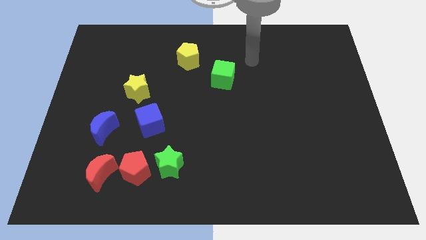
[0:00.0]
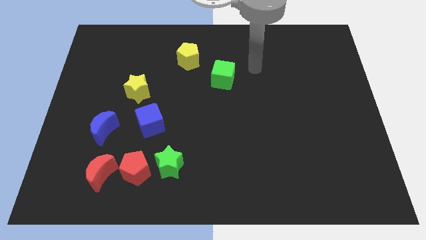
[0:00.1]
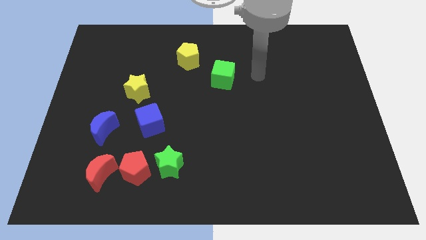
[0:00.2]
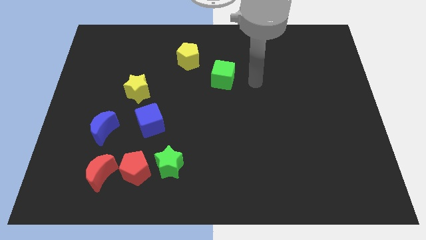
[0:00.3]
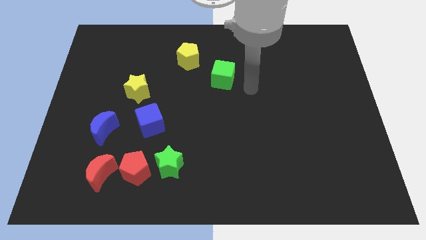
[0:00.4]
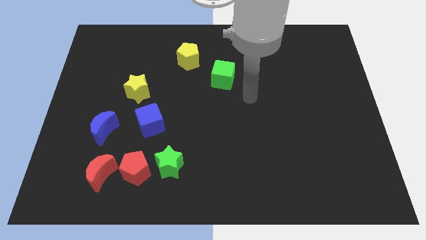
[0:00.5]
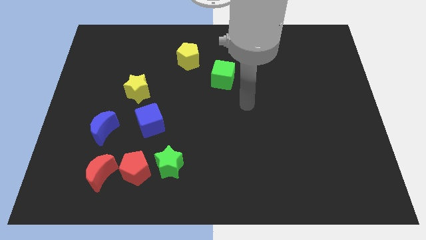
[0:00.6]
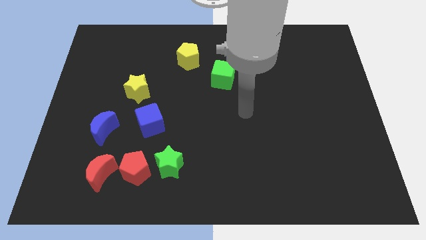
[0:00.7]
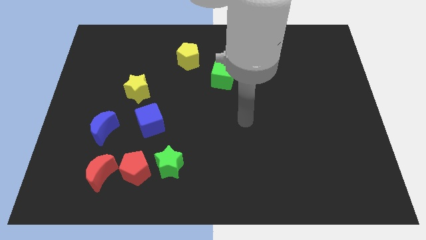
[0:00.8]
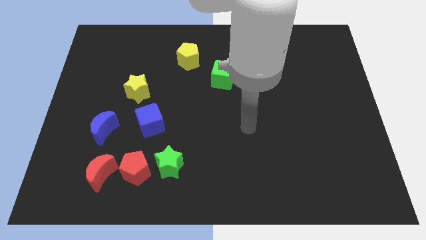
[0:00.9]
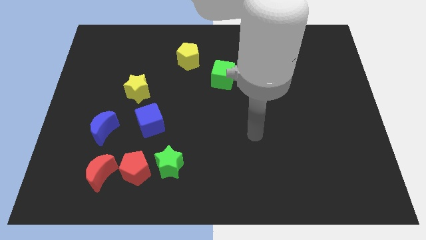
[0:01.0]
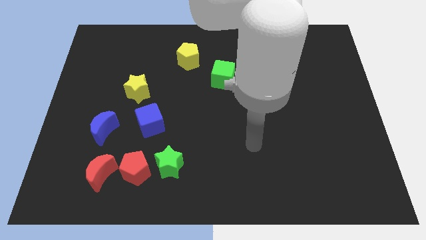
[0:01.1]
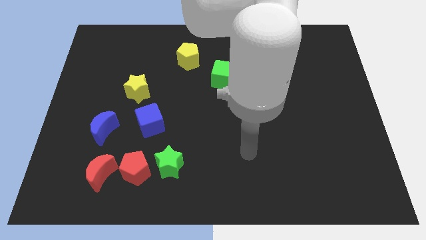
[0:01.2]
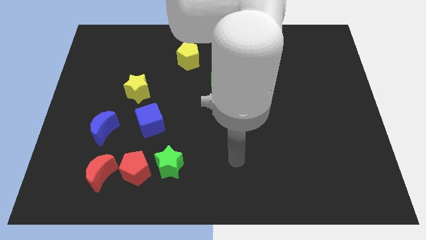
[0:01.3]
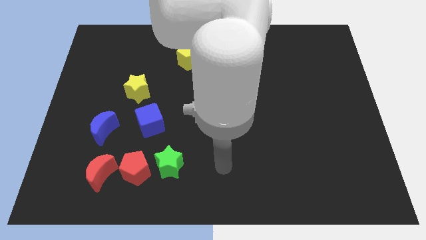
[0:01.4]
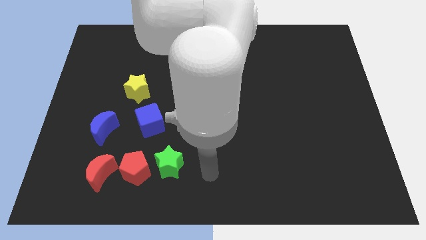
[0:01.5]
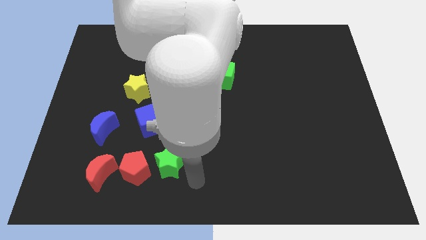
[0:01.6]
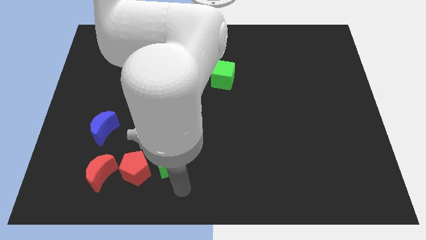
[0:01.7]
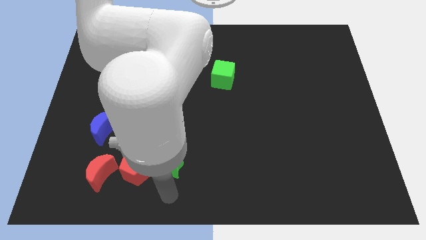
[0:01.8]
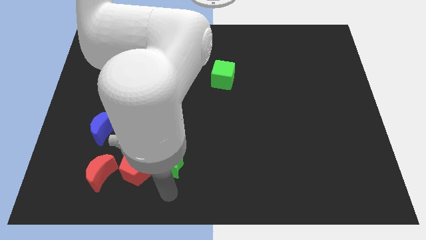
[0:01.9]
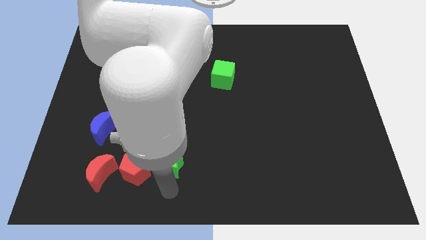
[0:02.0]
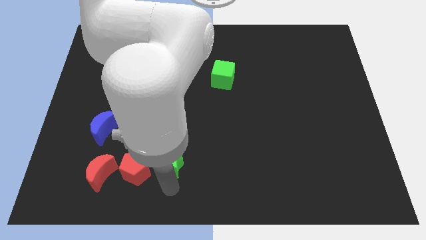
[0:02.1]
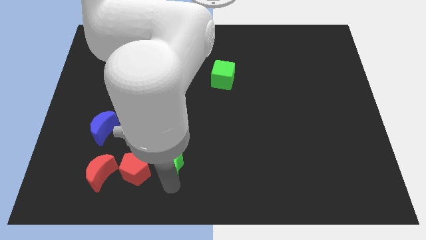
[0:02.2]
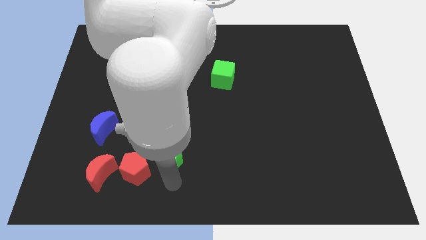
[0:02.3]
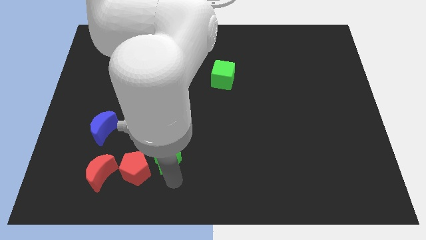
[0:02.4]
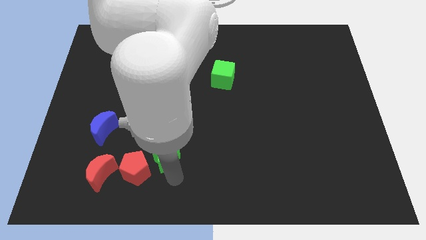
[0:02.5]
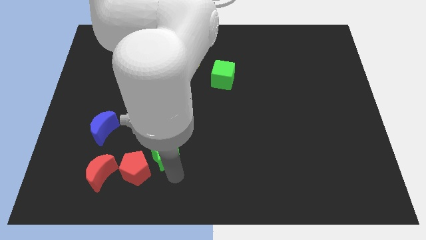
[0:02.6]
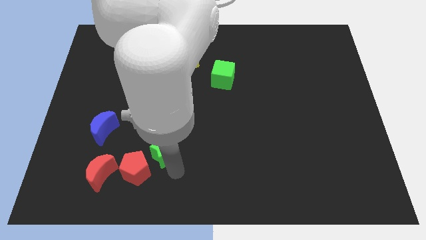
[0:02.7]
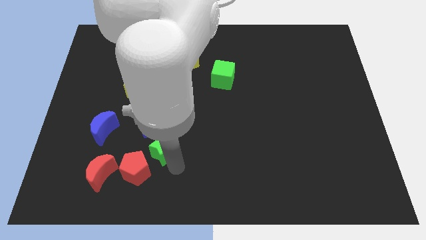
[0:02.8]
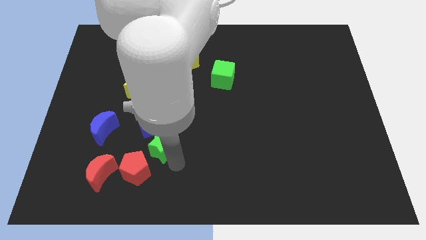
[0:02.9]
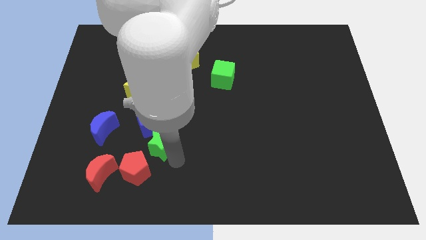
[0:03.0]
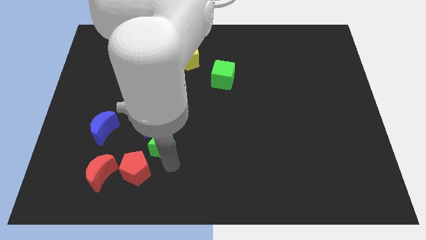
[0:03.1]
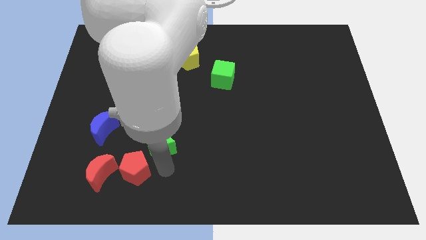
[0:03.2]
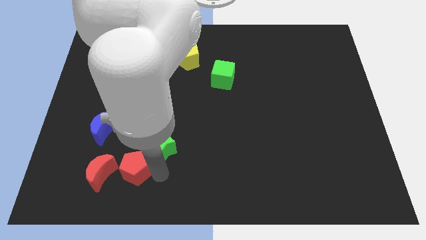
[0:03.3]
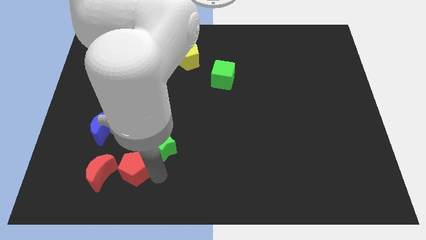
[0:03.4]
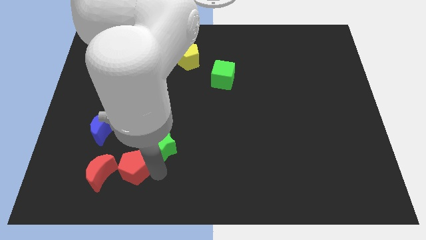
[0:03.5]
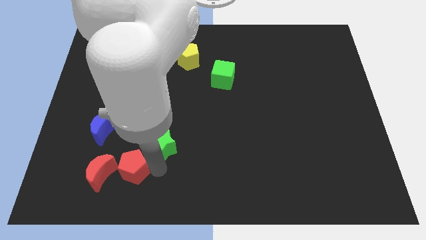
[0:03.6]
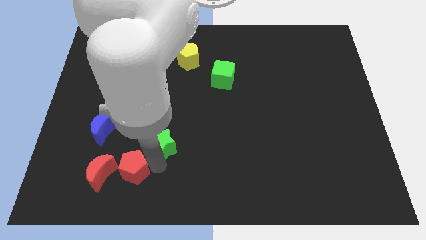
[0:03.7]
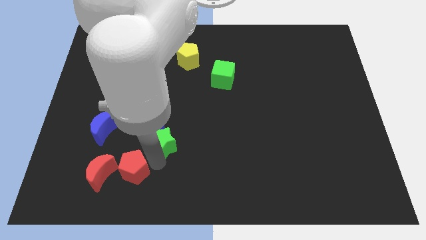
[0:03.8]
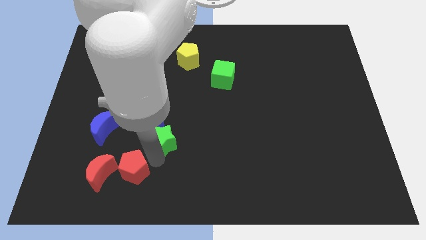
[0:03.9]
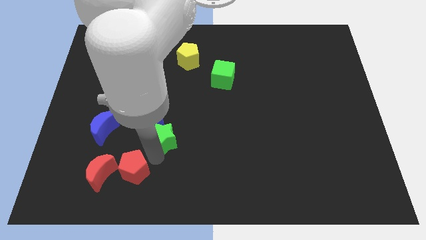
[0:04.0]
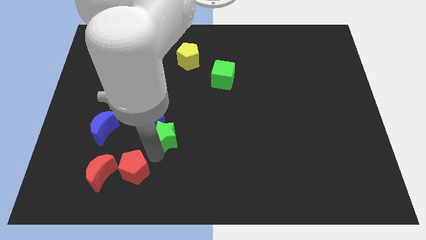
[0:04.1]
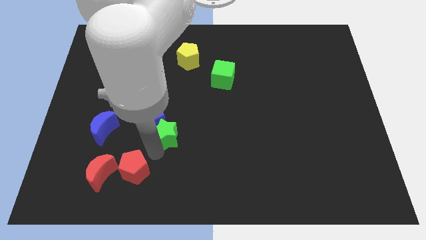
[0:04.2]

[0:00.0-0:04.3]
slightly slide the green star up

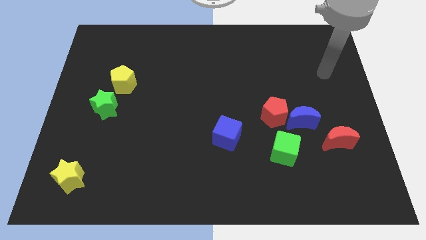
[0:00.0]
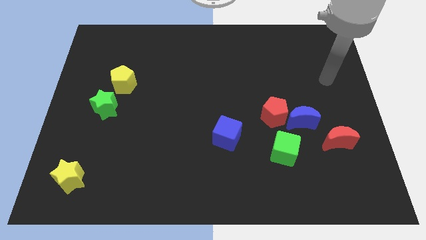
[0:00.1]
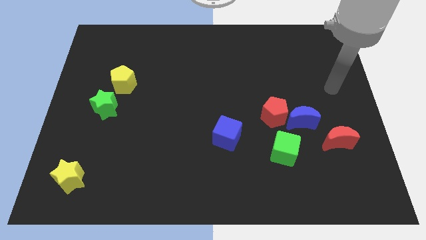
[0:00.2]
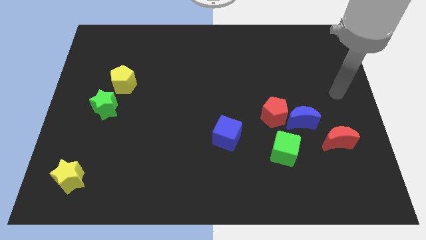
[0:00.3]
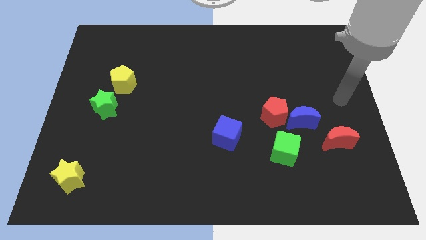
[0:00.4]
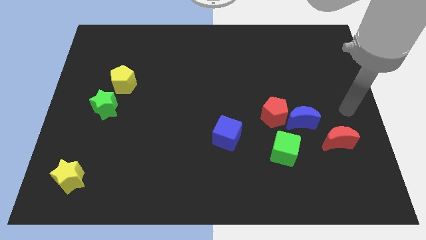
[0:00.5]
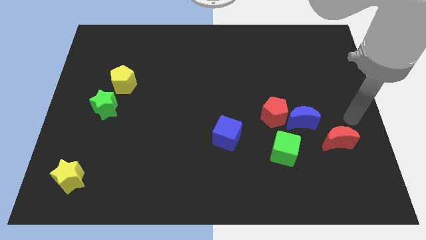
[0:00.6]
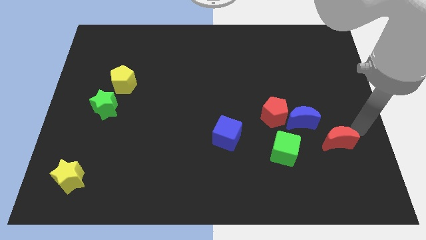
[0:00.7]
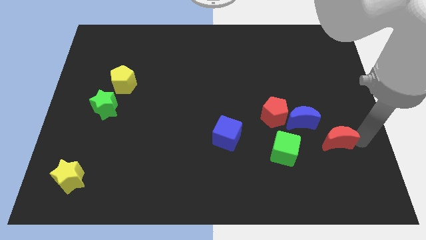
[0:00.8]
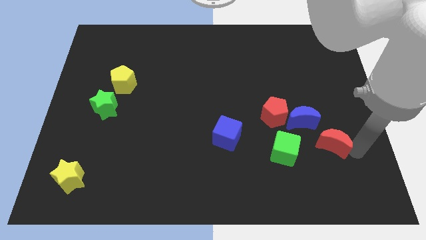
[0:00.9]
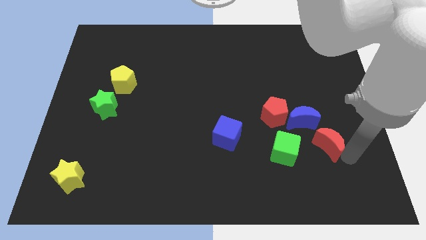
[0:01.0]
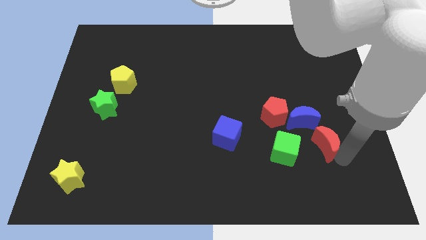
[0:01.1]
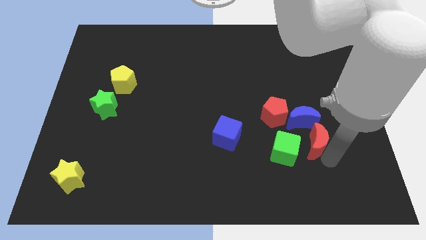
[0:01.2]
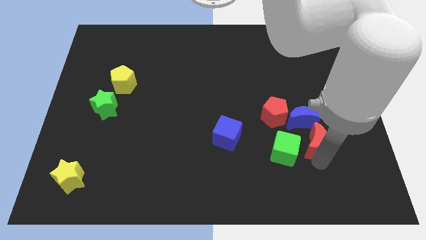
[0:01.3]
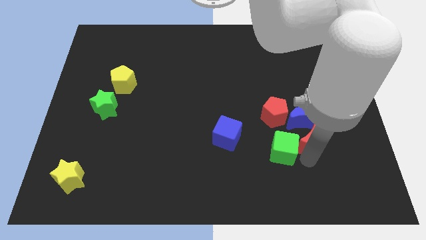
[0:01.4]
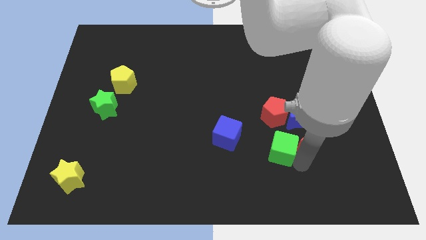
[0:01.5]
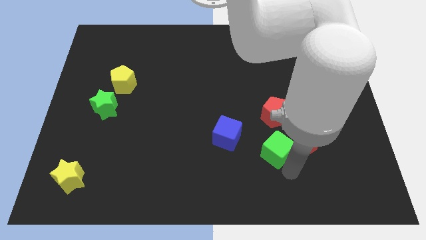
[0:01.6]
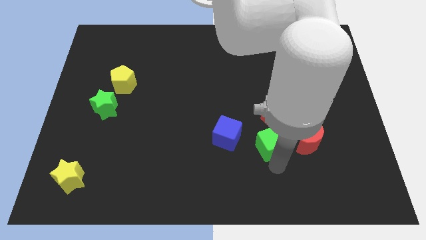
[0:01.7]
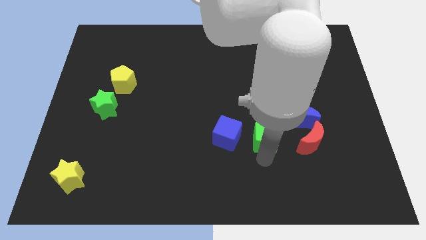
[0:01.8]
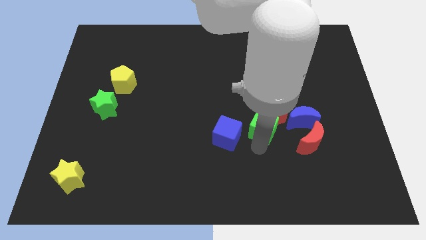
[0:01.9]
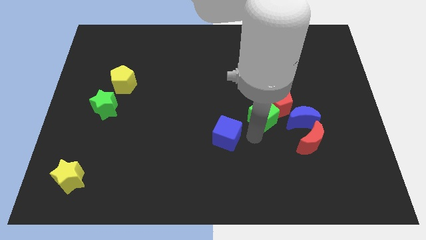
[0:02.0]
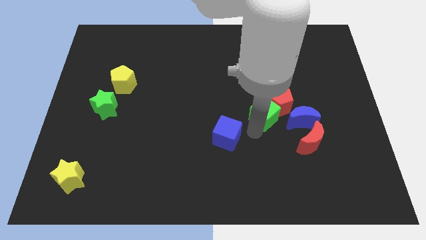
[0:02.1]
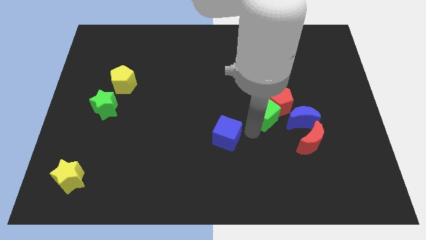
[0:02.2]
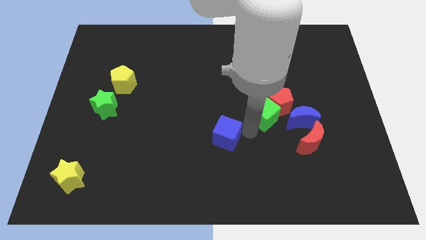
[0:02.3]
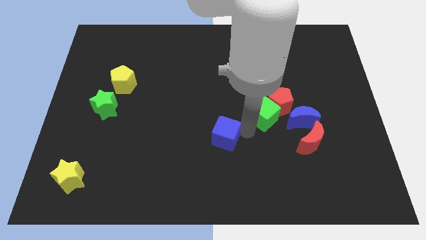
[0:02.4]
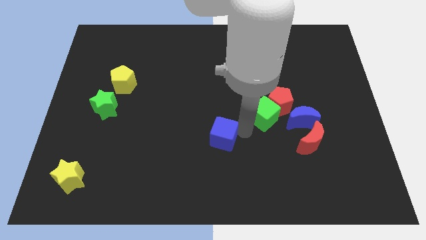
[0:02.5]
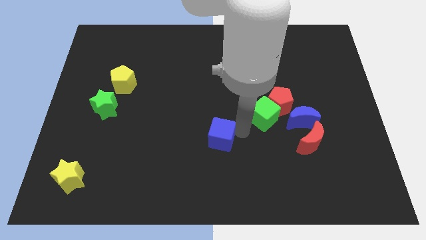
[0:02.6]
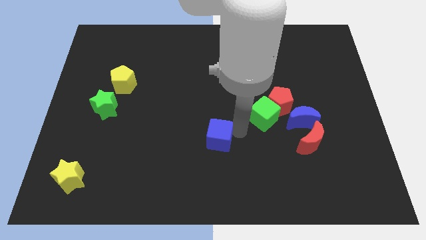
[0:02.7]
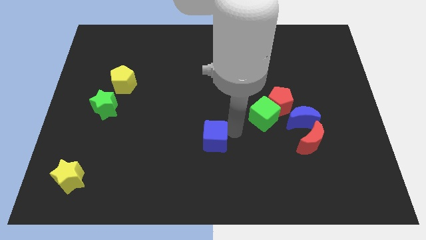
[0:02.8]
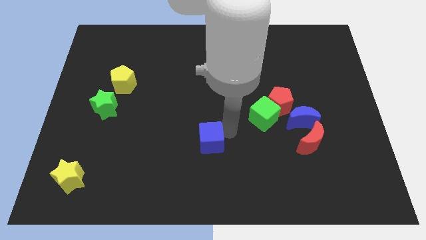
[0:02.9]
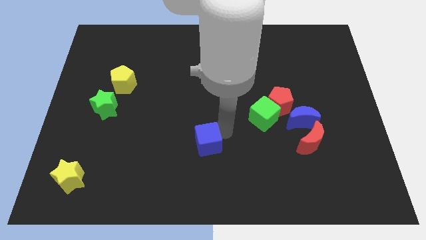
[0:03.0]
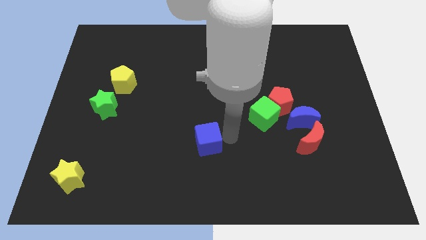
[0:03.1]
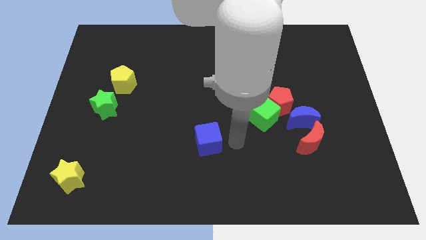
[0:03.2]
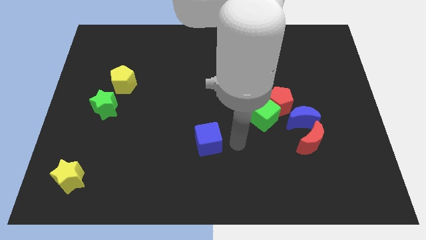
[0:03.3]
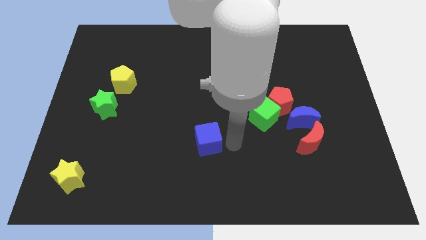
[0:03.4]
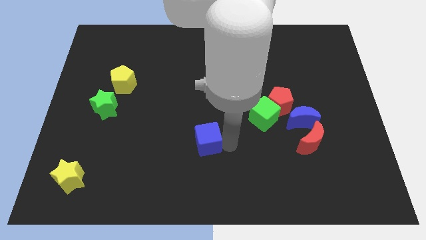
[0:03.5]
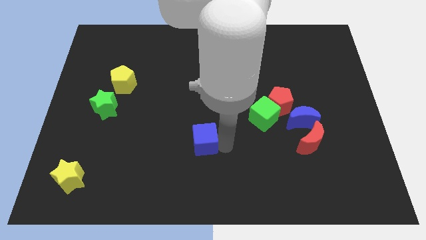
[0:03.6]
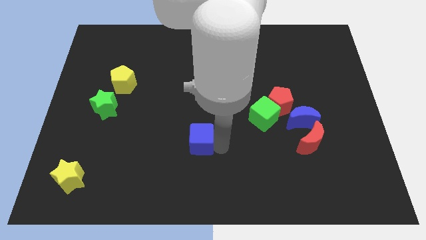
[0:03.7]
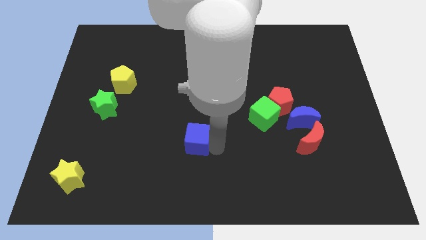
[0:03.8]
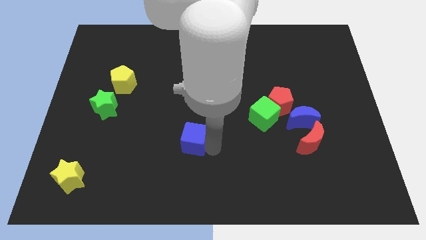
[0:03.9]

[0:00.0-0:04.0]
slide the blue cube to the left a little bit
